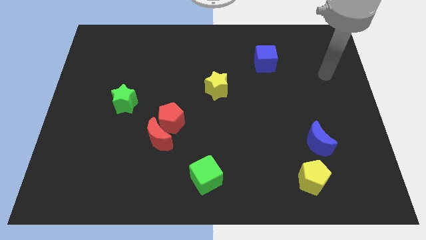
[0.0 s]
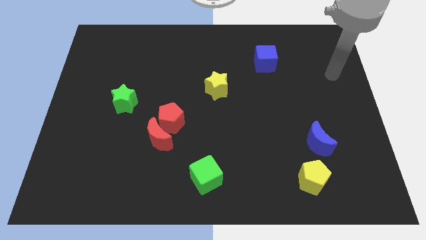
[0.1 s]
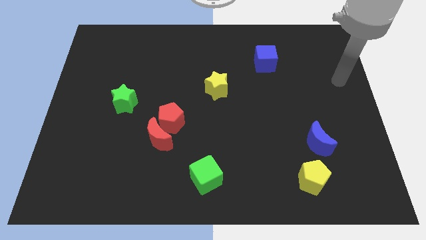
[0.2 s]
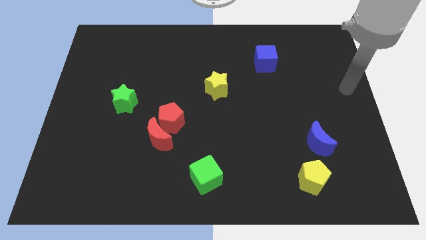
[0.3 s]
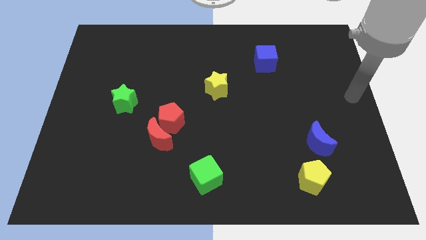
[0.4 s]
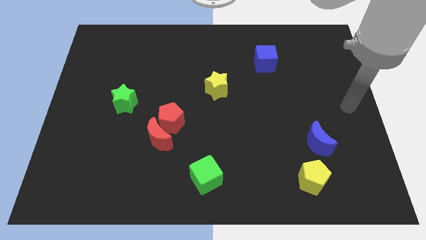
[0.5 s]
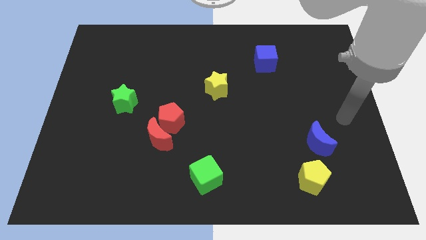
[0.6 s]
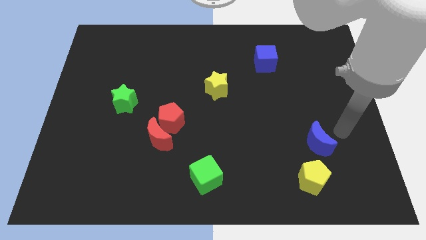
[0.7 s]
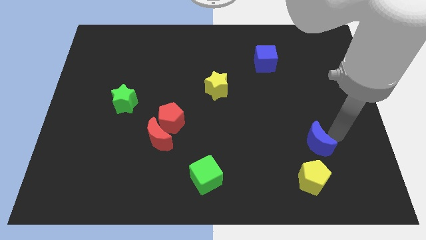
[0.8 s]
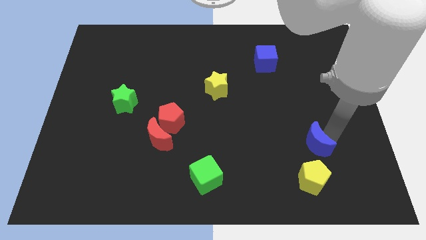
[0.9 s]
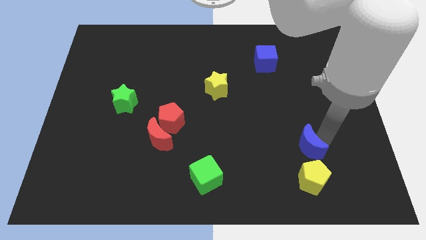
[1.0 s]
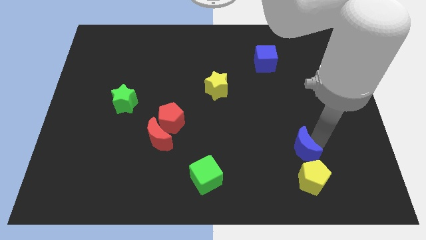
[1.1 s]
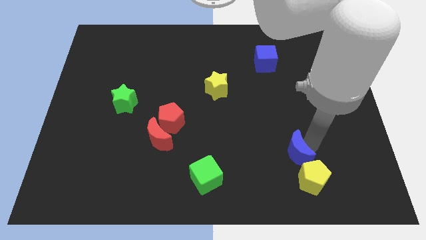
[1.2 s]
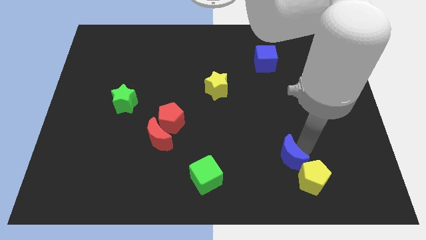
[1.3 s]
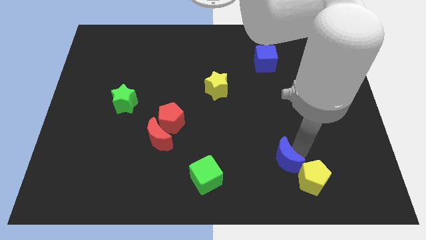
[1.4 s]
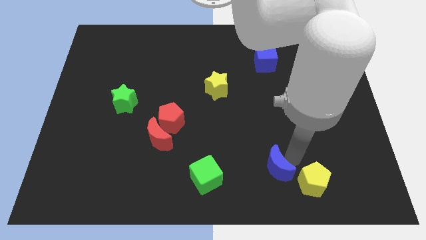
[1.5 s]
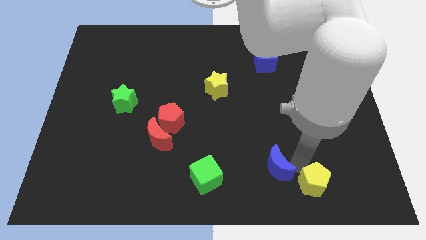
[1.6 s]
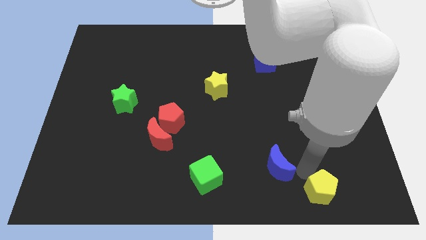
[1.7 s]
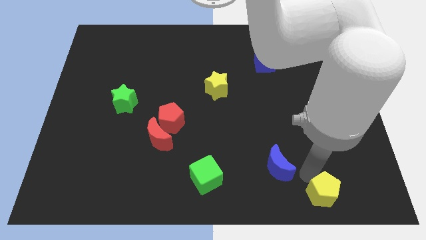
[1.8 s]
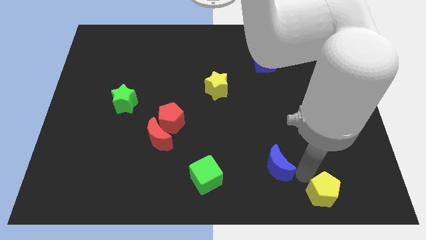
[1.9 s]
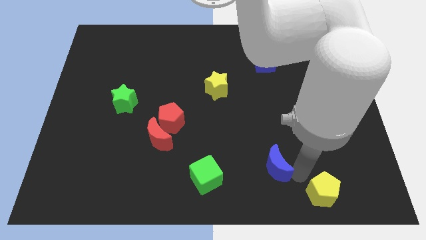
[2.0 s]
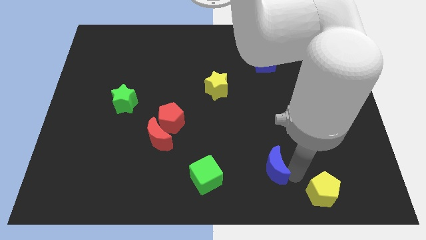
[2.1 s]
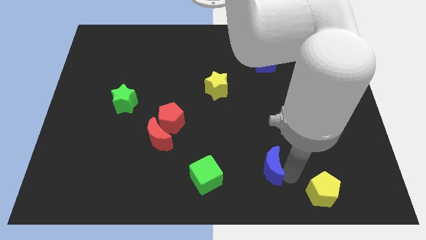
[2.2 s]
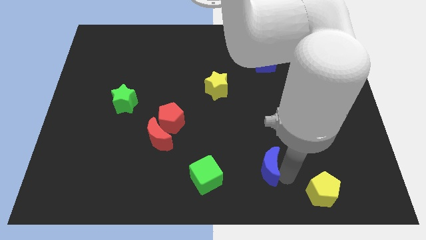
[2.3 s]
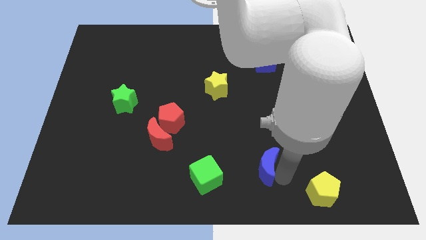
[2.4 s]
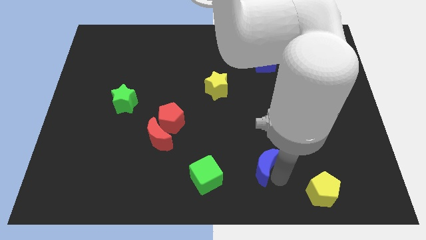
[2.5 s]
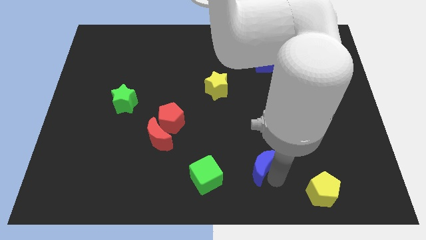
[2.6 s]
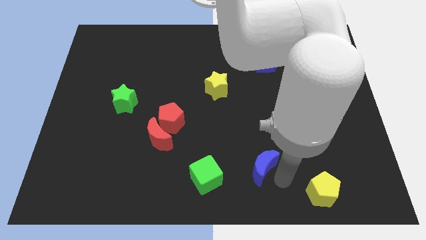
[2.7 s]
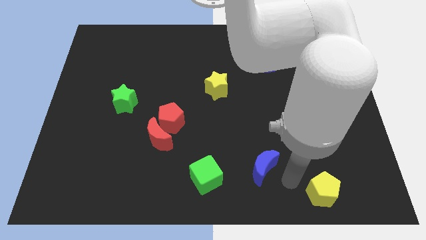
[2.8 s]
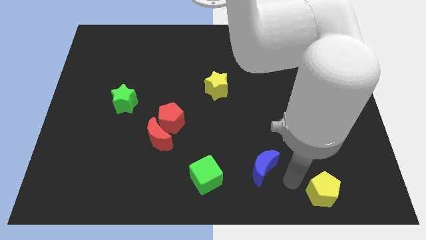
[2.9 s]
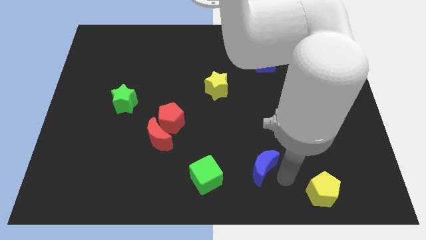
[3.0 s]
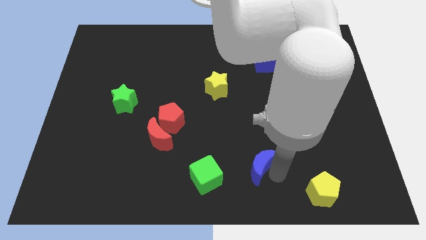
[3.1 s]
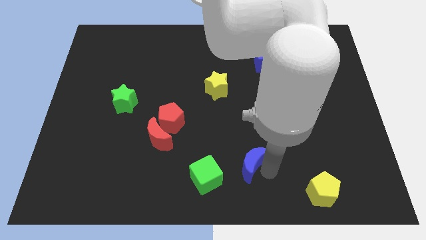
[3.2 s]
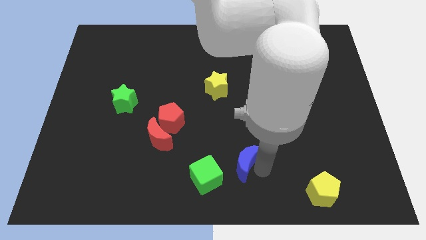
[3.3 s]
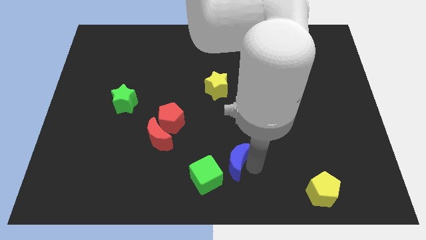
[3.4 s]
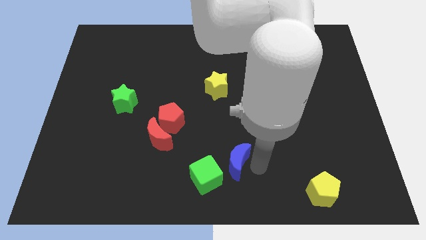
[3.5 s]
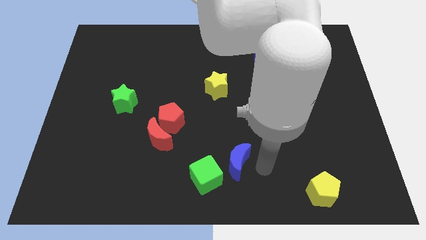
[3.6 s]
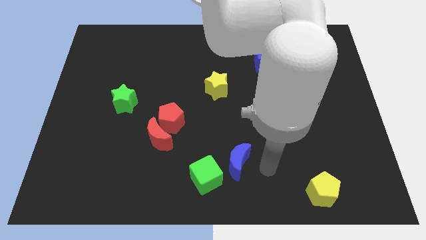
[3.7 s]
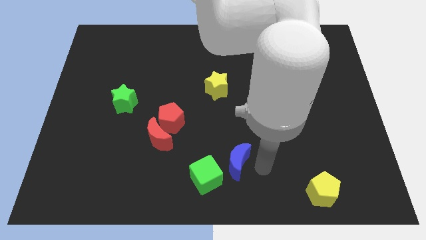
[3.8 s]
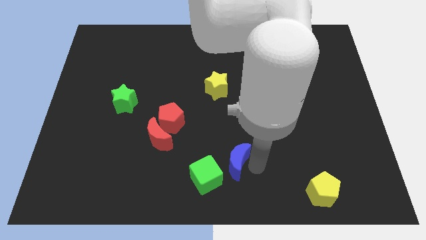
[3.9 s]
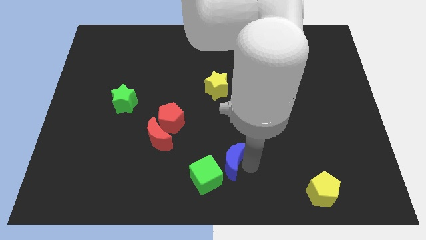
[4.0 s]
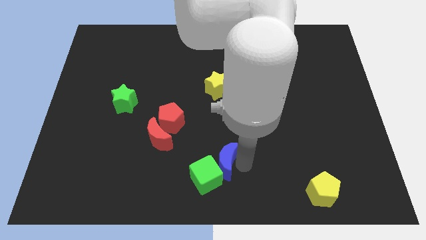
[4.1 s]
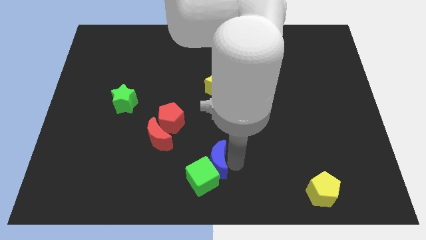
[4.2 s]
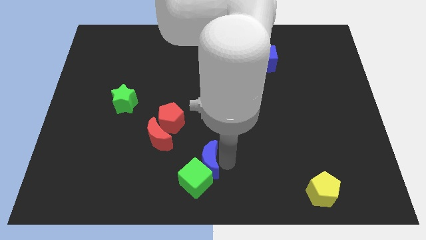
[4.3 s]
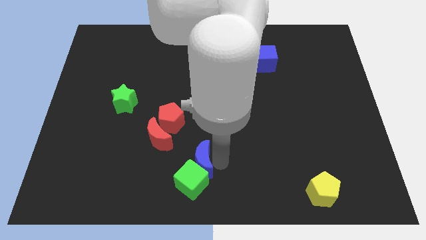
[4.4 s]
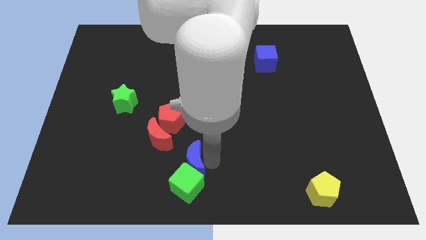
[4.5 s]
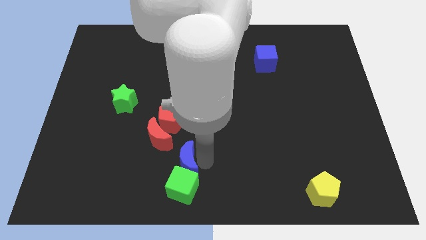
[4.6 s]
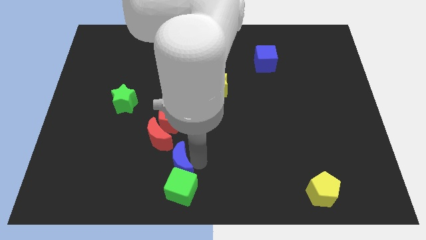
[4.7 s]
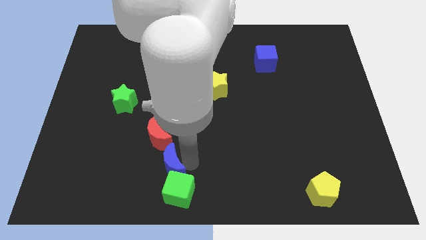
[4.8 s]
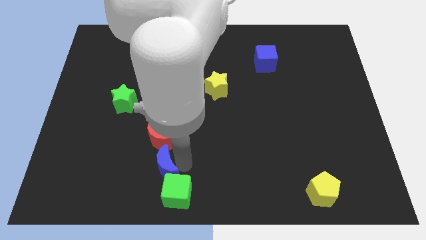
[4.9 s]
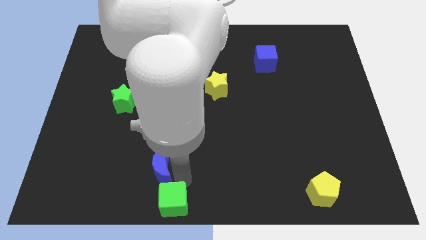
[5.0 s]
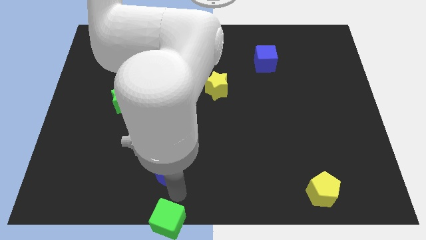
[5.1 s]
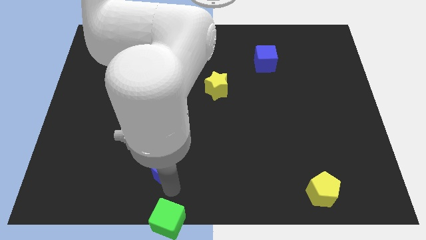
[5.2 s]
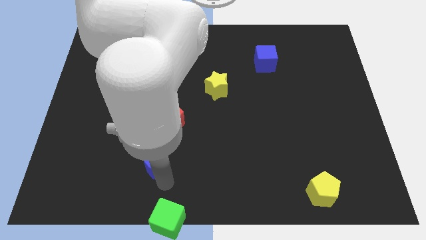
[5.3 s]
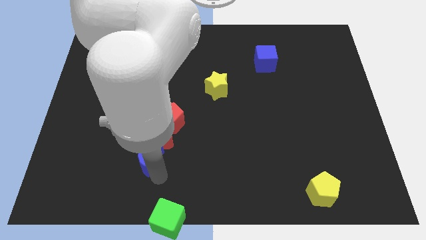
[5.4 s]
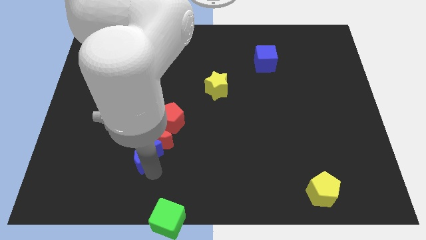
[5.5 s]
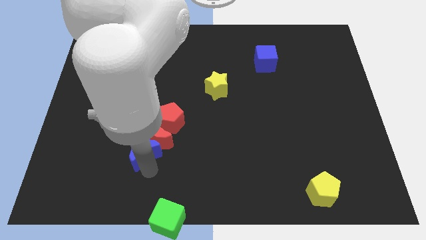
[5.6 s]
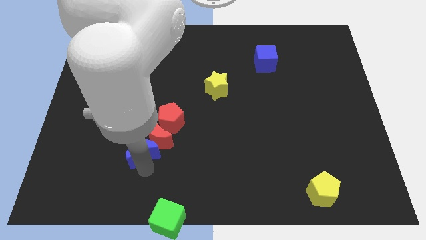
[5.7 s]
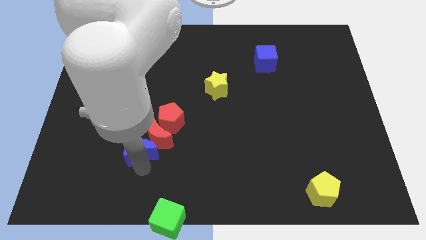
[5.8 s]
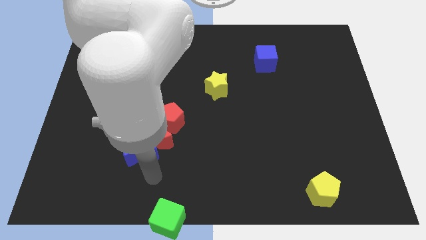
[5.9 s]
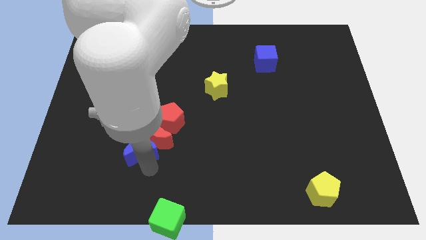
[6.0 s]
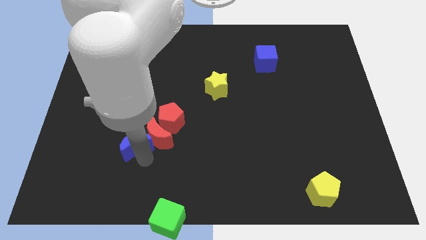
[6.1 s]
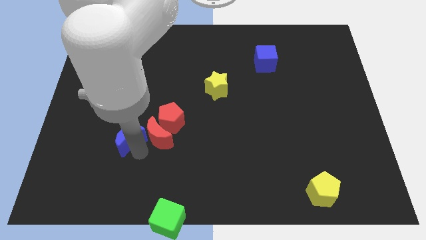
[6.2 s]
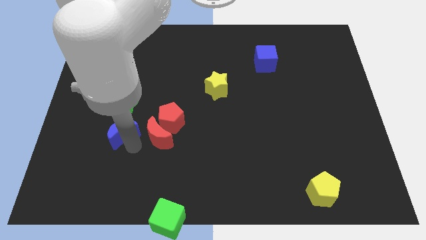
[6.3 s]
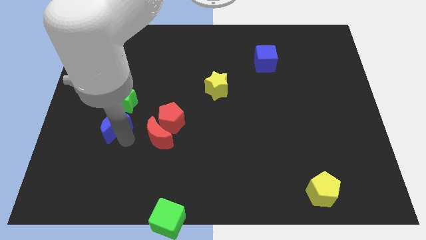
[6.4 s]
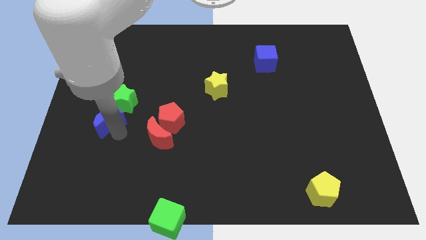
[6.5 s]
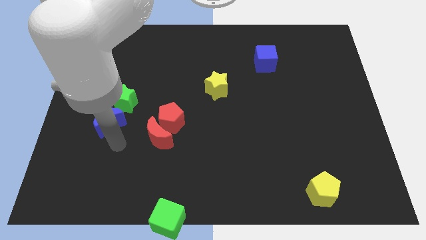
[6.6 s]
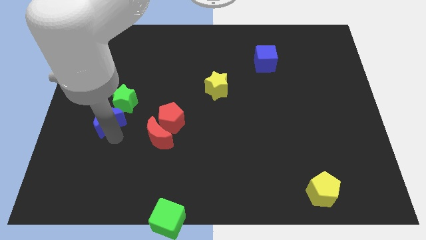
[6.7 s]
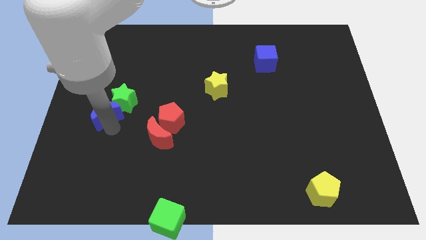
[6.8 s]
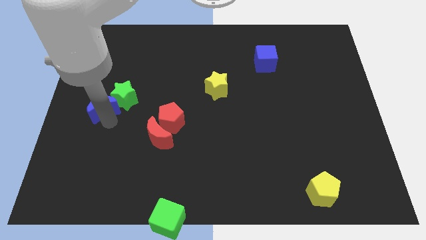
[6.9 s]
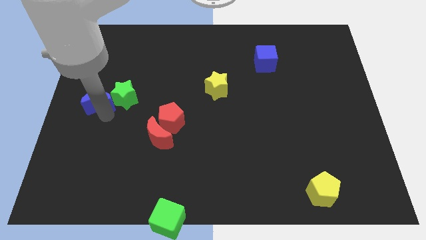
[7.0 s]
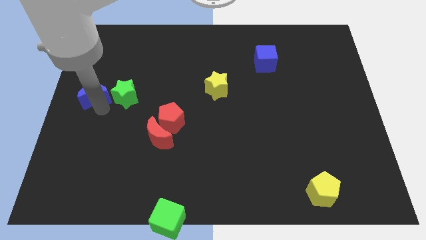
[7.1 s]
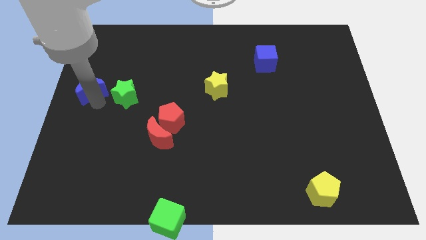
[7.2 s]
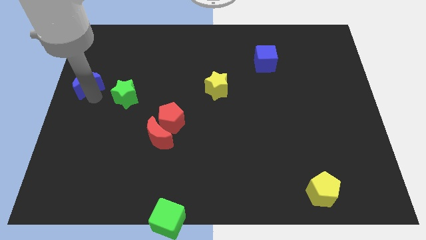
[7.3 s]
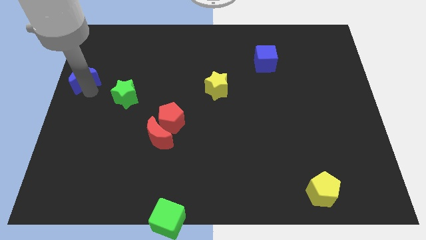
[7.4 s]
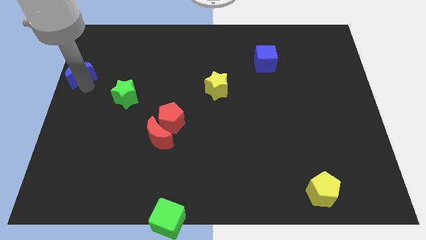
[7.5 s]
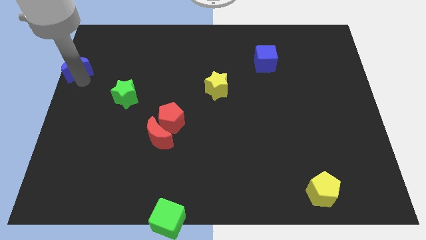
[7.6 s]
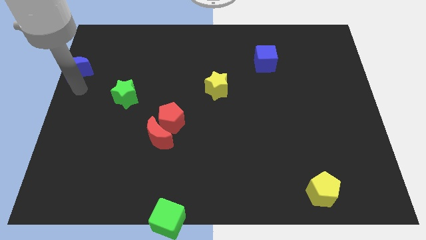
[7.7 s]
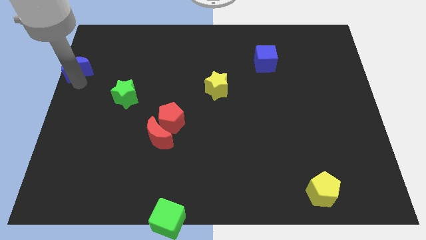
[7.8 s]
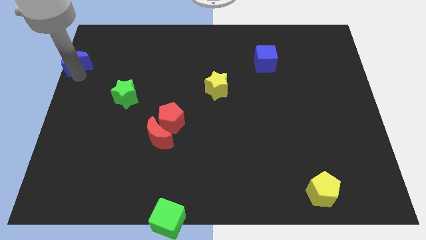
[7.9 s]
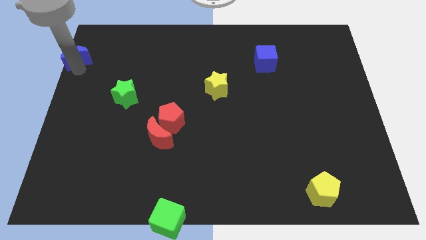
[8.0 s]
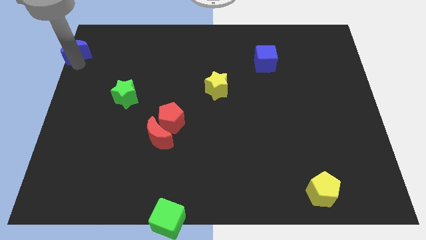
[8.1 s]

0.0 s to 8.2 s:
slide the blue moon to the top left
